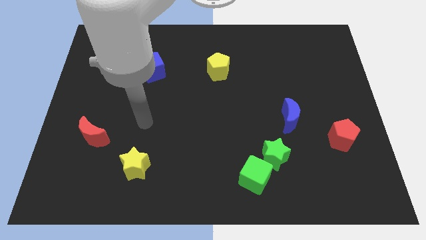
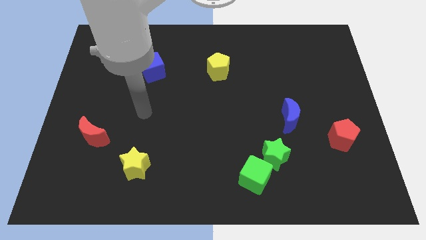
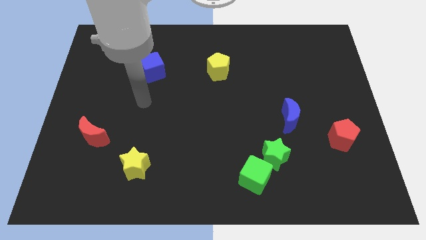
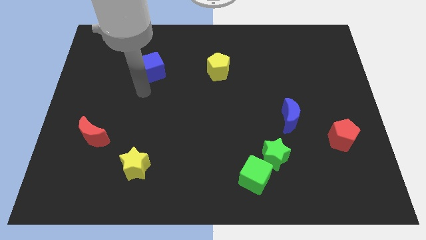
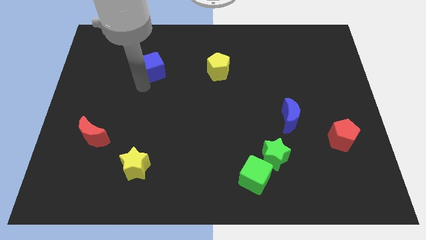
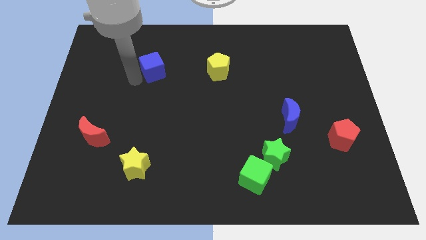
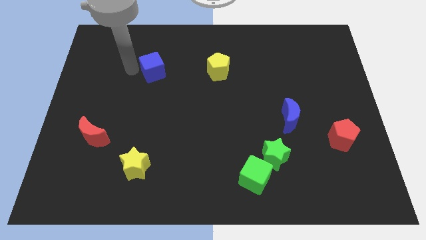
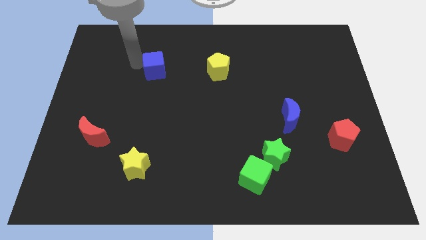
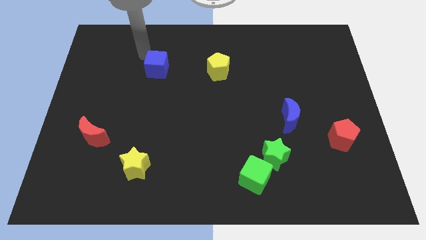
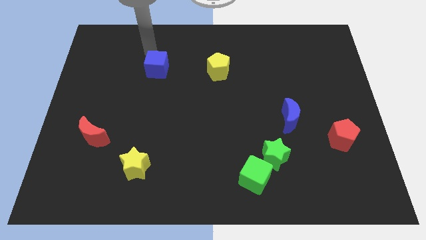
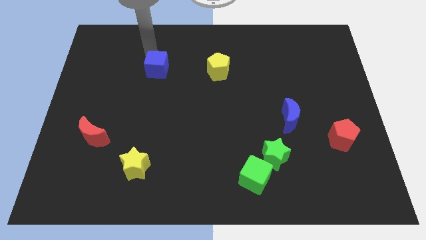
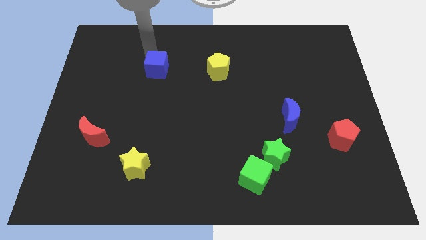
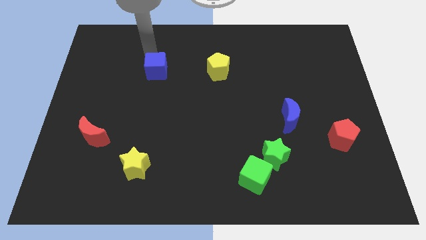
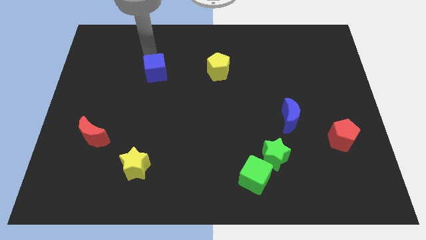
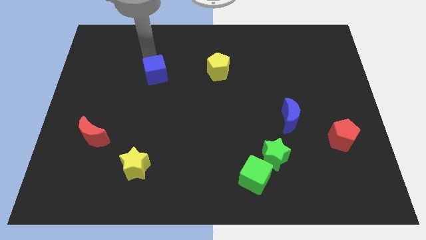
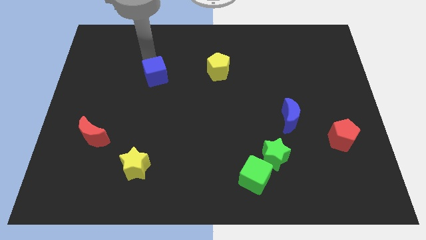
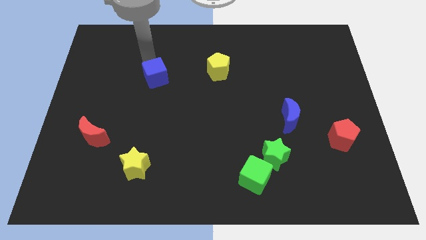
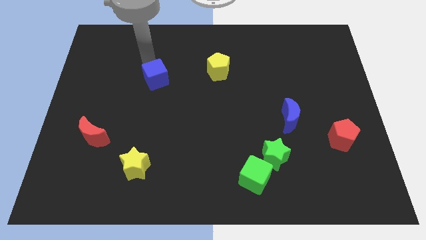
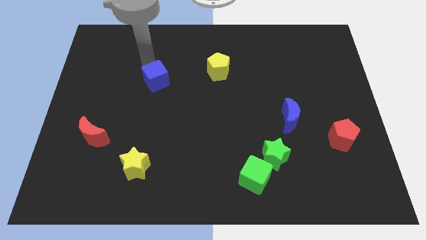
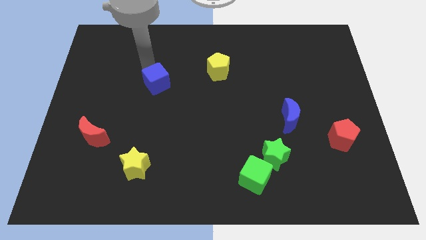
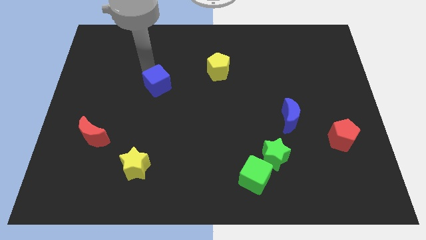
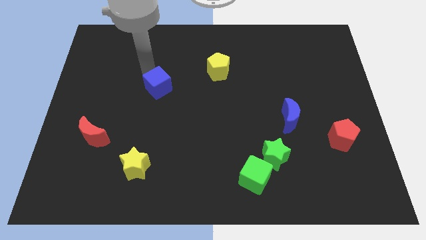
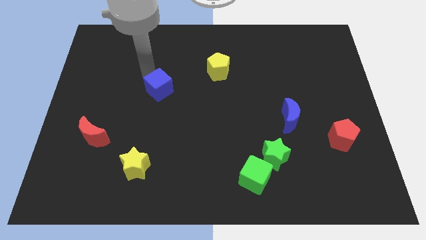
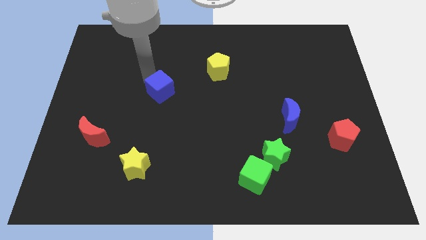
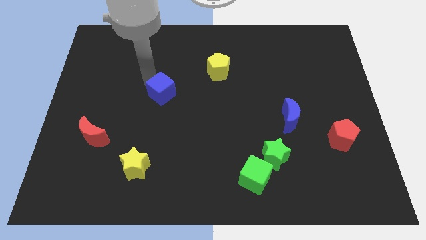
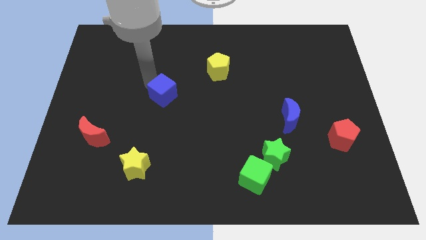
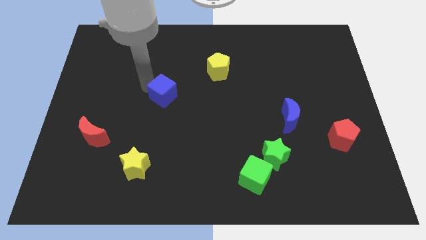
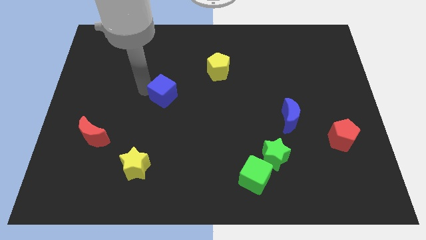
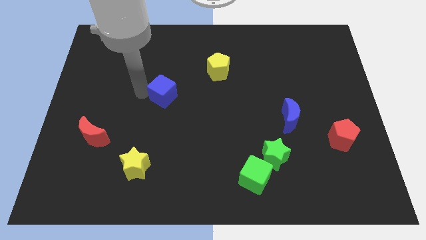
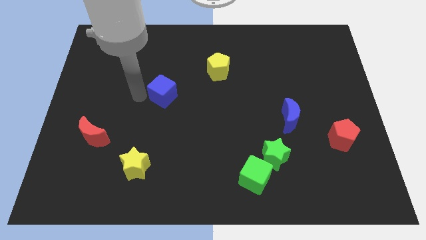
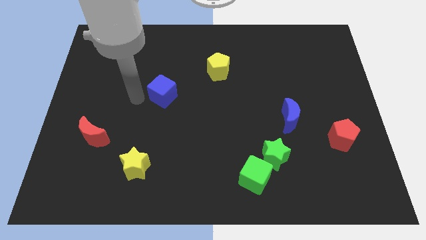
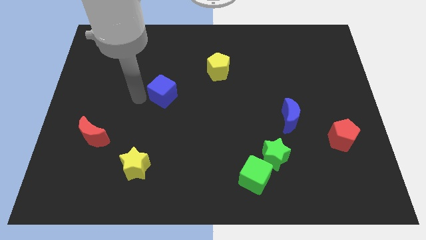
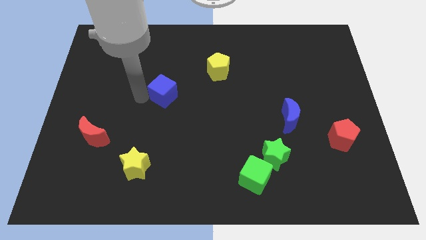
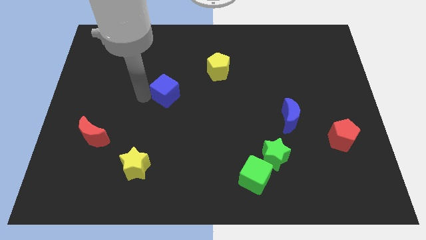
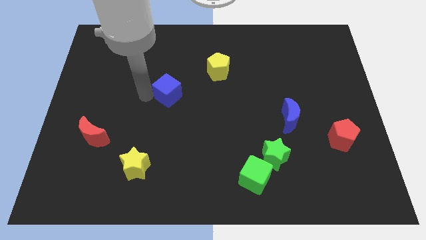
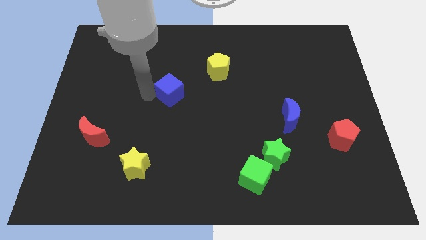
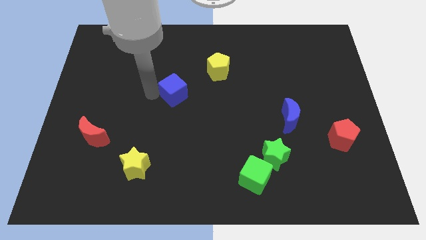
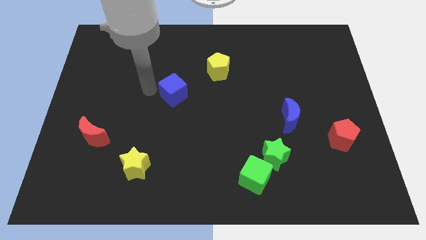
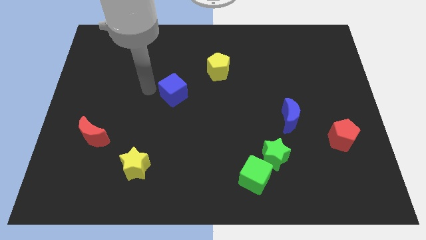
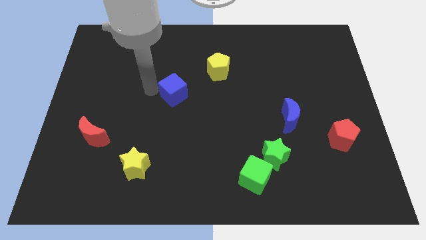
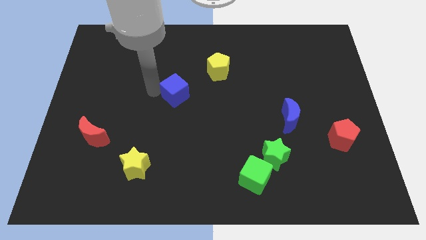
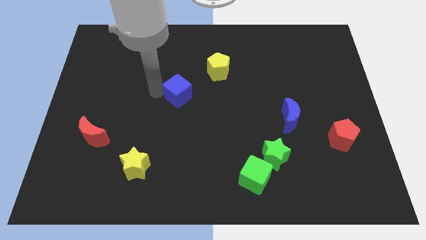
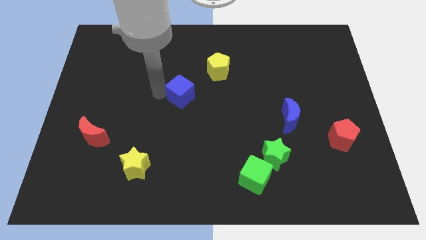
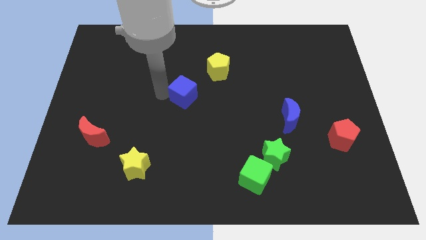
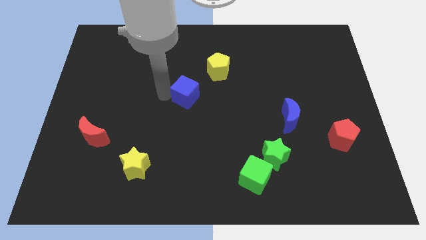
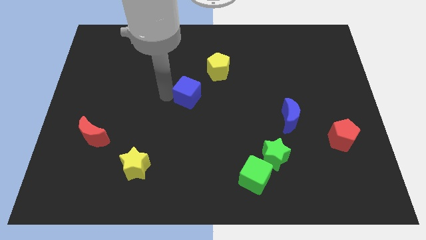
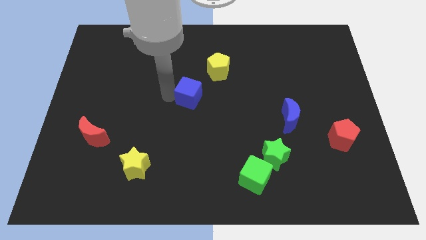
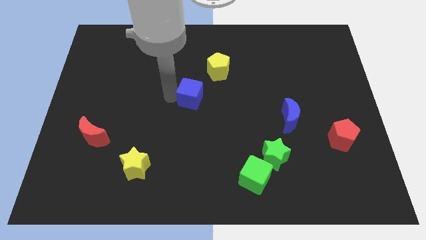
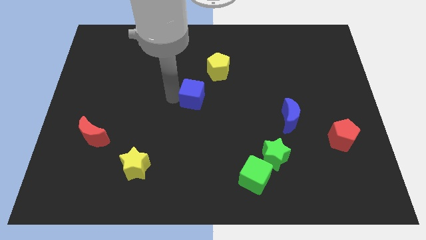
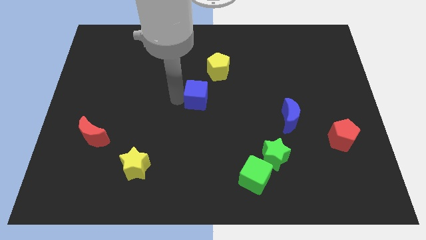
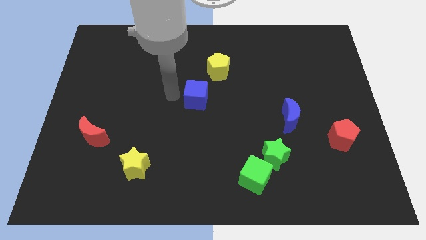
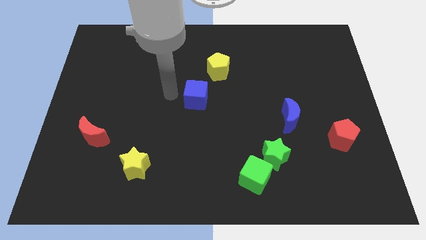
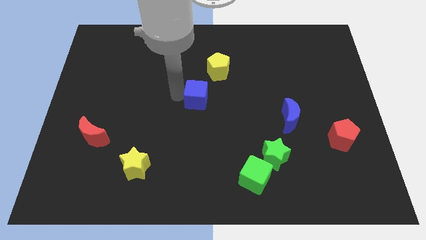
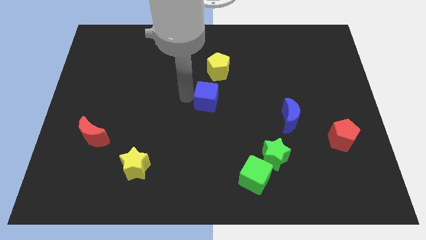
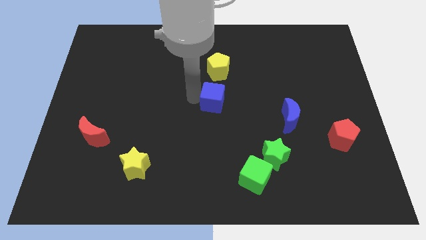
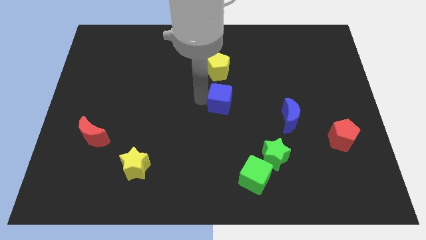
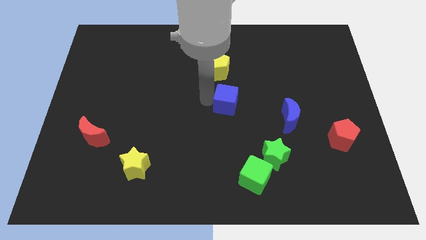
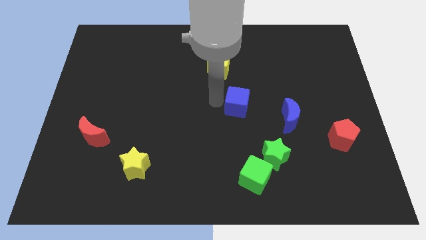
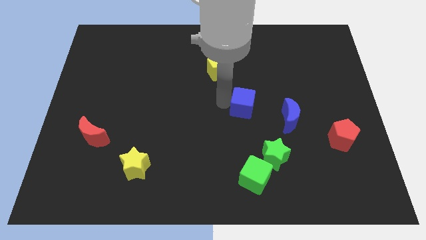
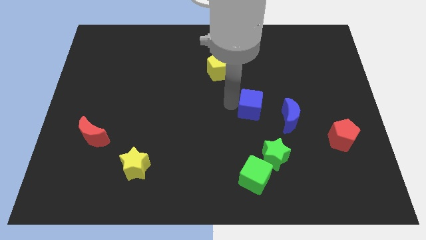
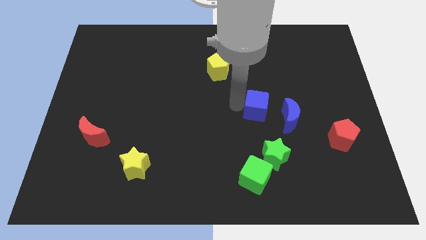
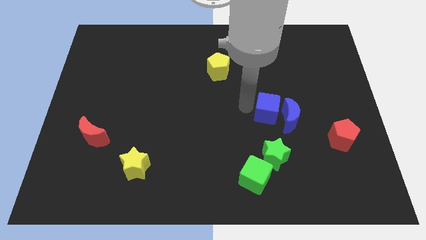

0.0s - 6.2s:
move the blue cube to the blue moon

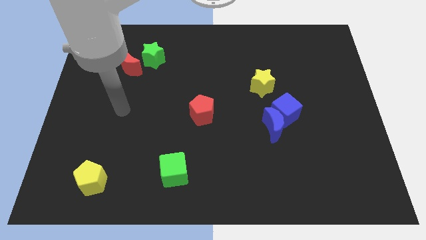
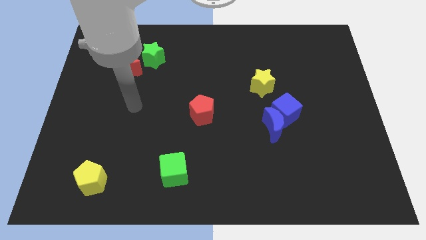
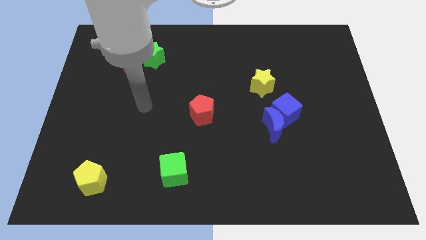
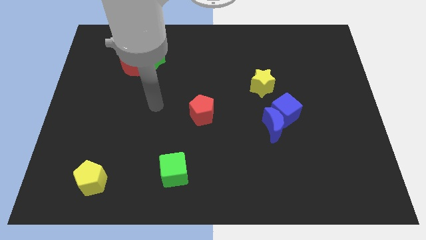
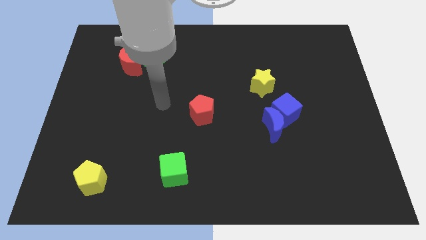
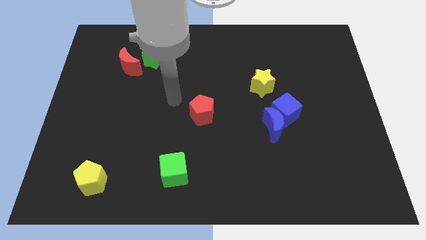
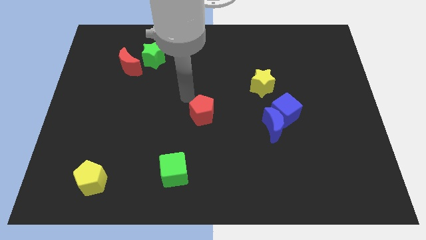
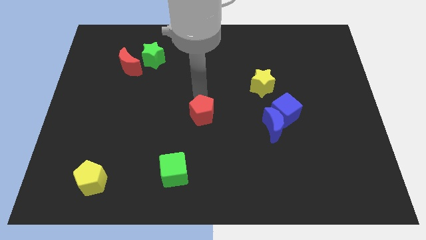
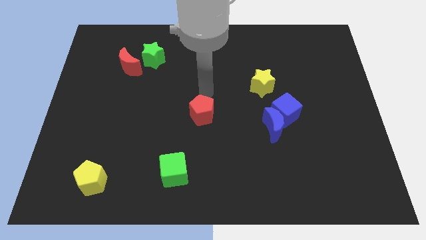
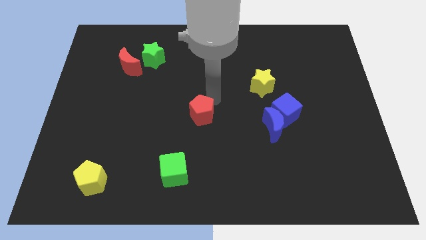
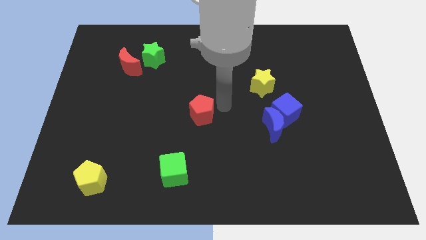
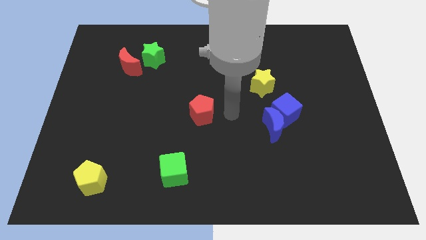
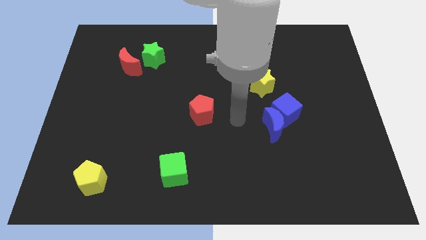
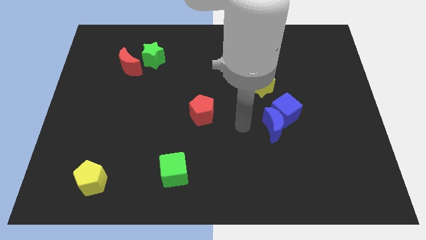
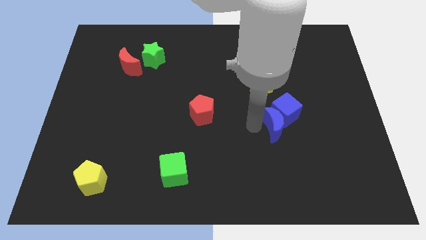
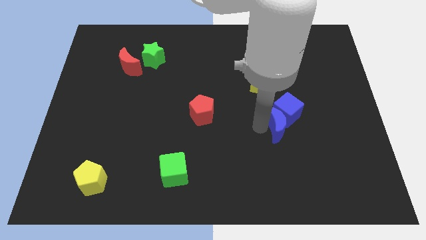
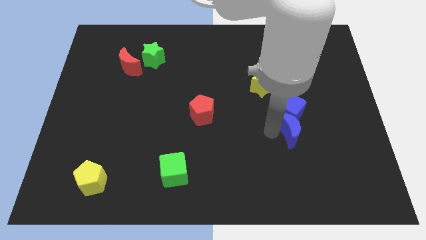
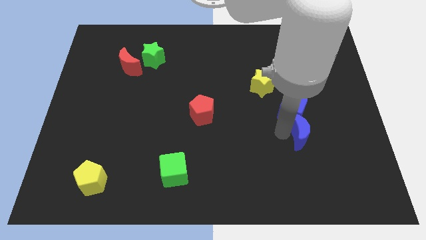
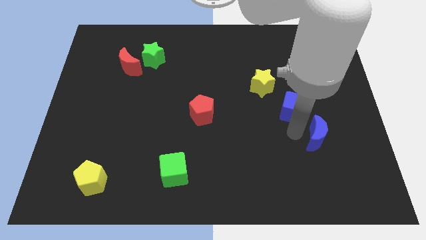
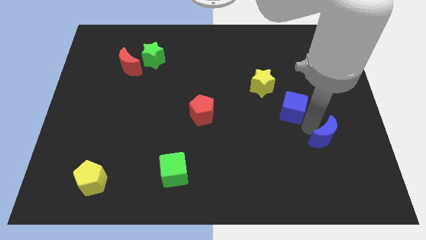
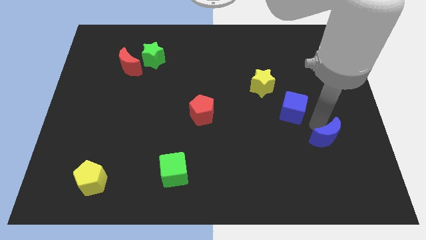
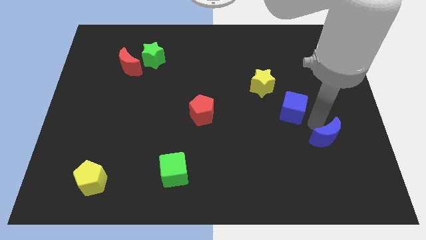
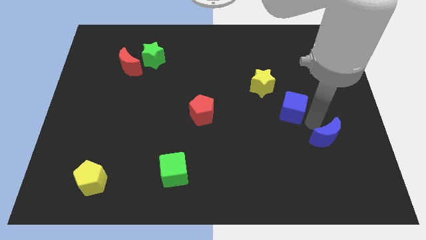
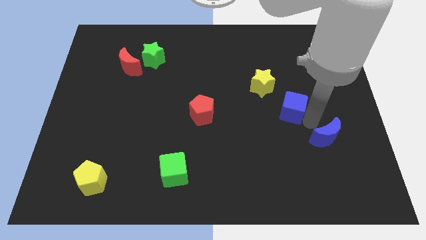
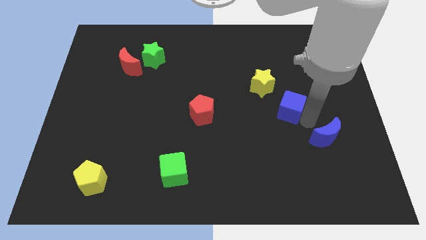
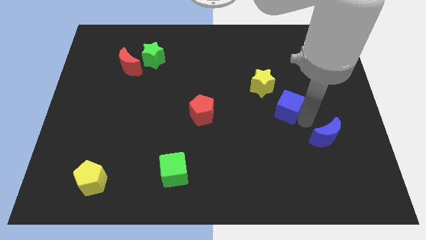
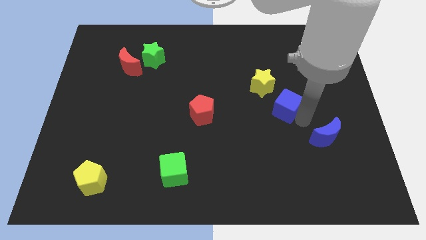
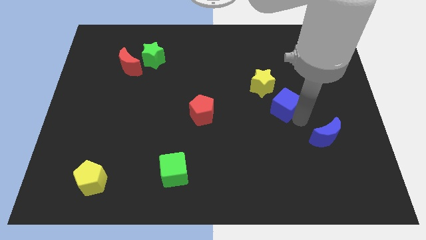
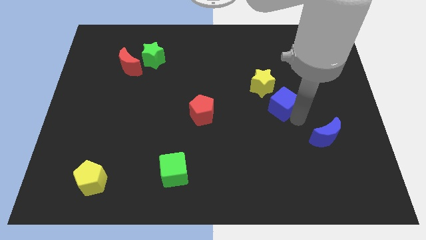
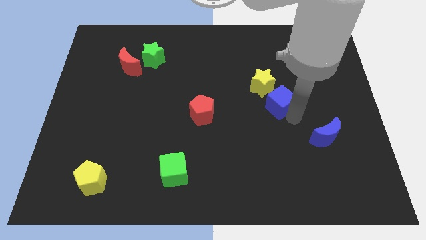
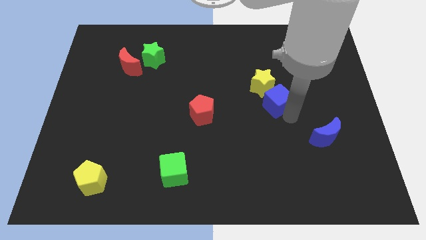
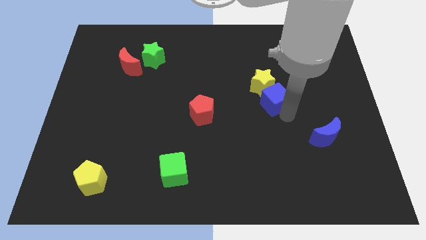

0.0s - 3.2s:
slide the blue cube towards the yellow star
